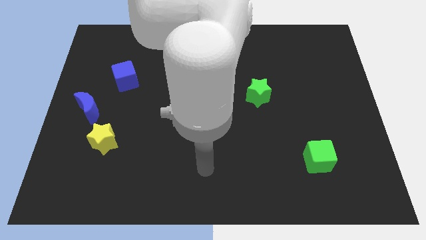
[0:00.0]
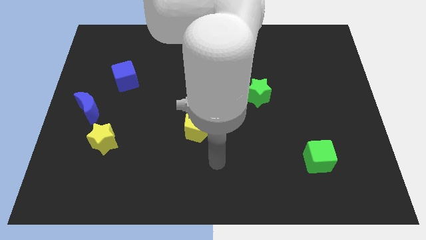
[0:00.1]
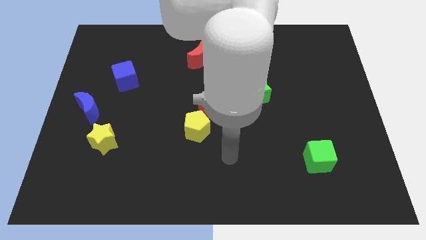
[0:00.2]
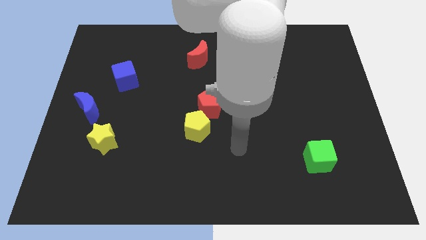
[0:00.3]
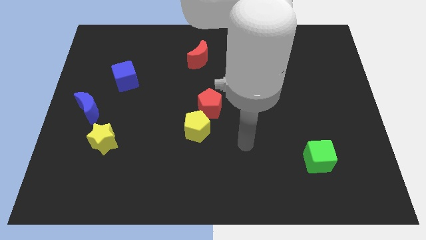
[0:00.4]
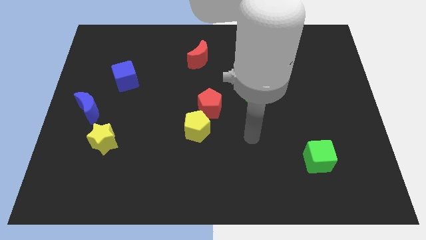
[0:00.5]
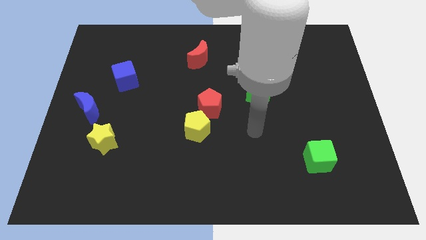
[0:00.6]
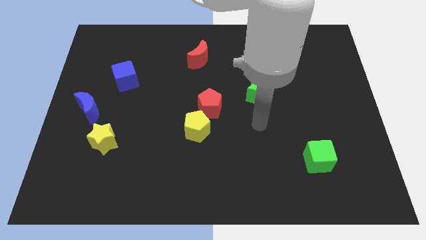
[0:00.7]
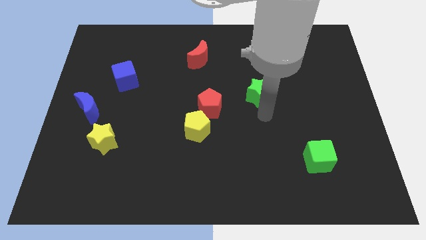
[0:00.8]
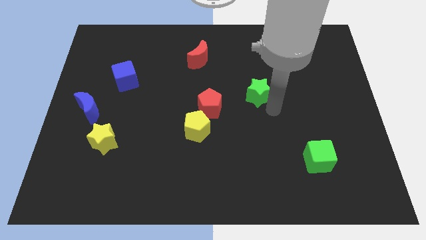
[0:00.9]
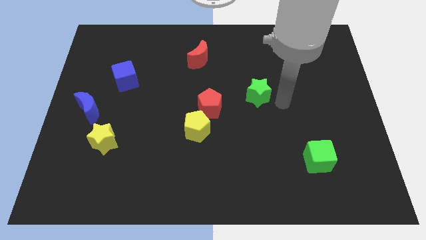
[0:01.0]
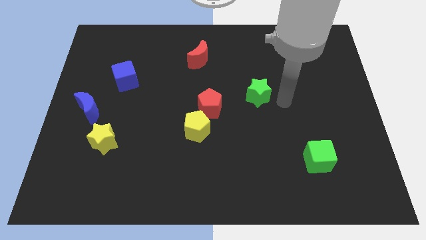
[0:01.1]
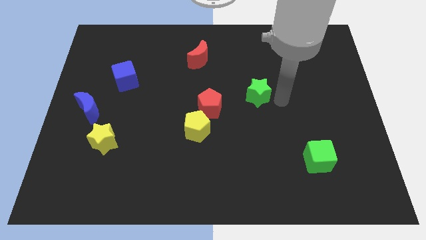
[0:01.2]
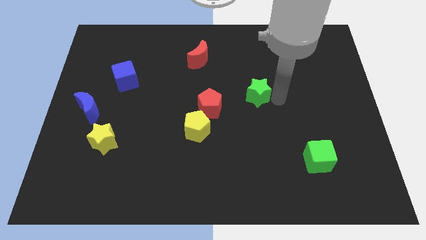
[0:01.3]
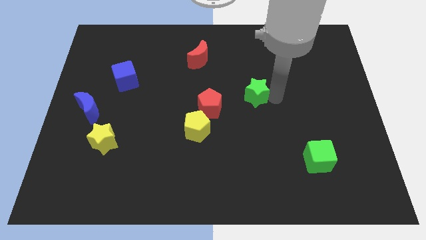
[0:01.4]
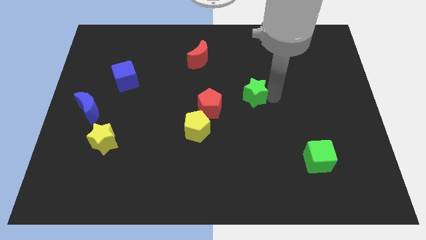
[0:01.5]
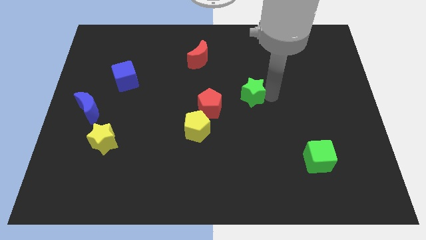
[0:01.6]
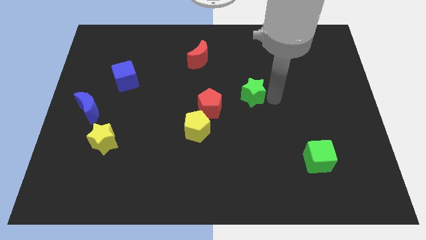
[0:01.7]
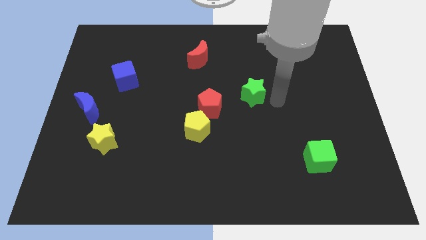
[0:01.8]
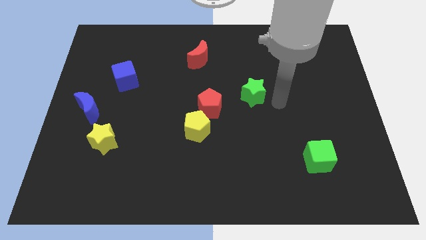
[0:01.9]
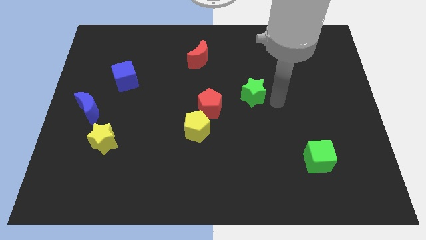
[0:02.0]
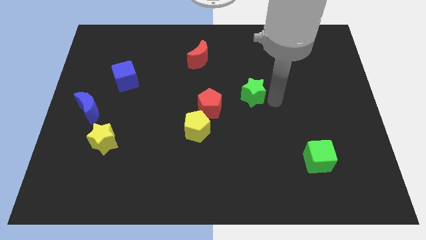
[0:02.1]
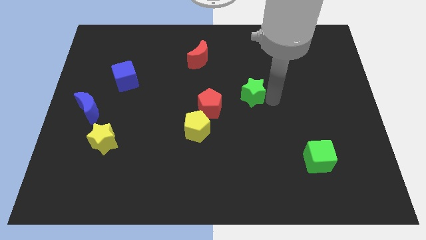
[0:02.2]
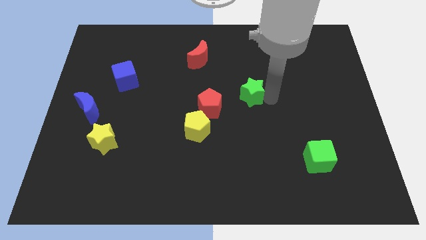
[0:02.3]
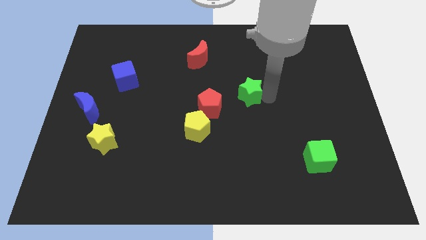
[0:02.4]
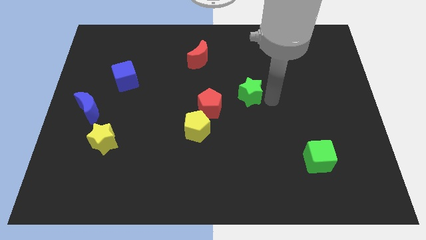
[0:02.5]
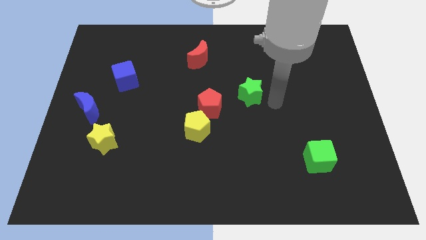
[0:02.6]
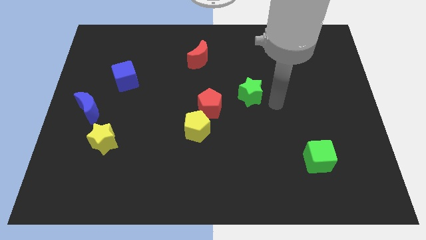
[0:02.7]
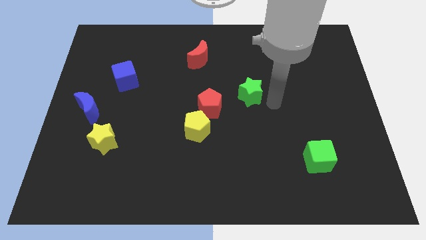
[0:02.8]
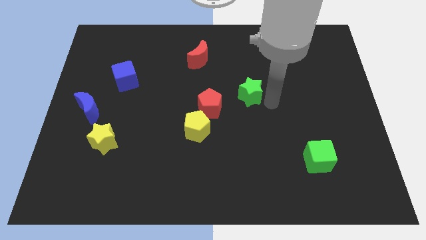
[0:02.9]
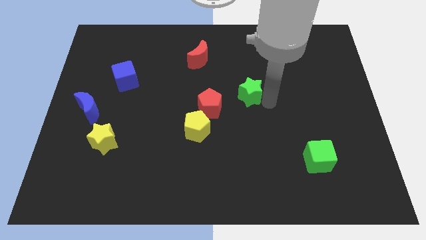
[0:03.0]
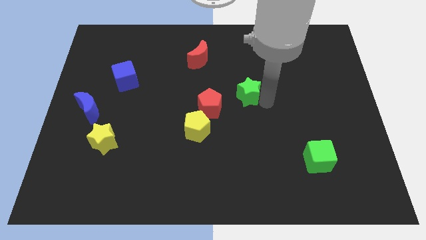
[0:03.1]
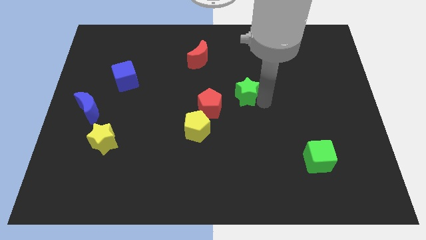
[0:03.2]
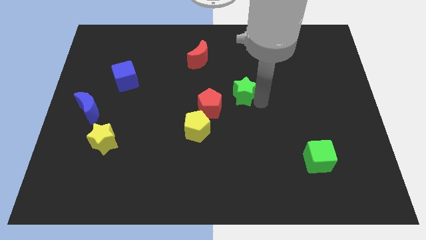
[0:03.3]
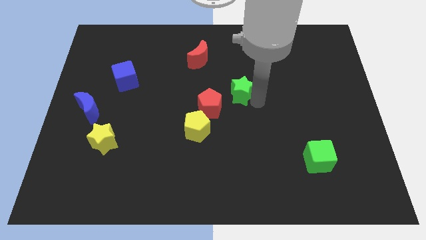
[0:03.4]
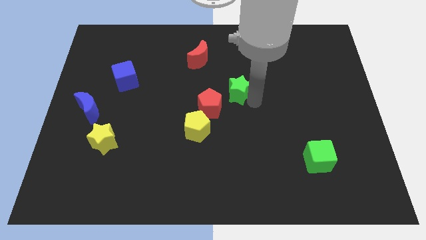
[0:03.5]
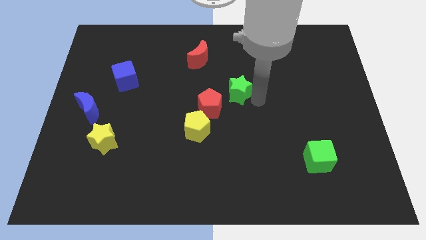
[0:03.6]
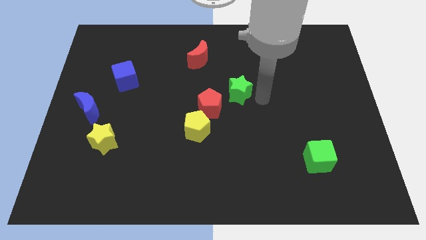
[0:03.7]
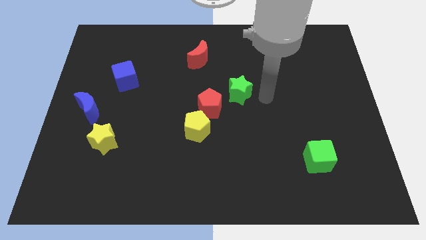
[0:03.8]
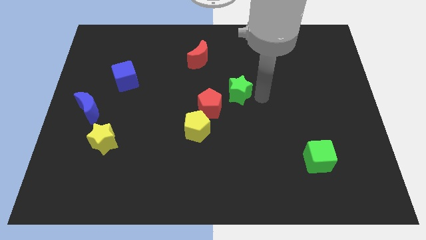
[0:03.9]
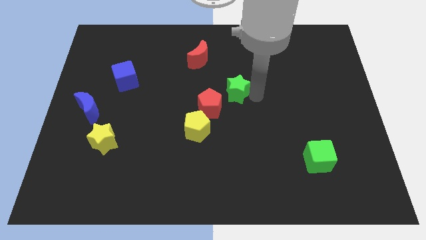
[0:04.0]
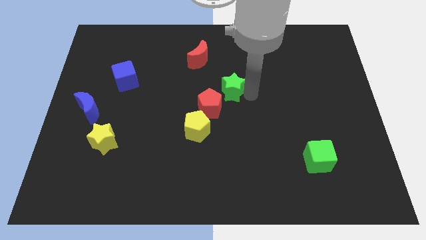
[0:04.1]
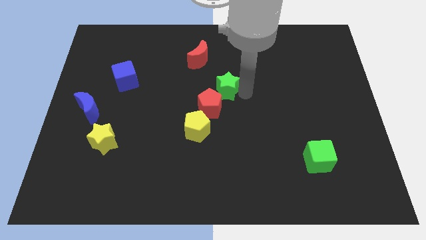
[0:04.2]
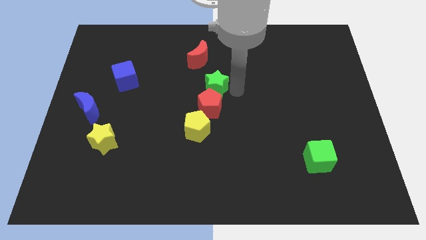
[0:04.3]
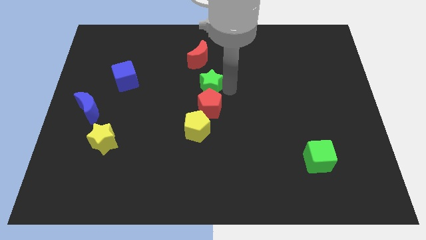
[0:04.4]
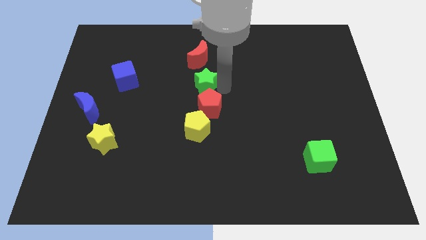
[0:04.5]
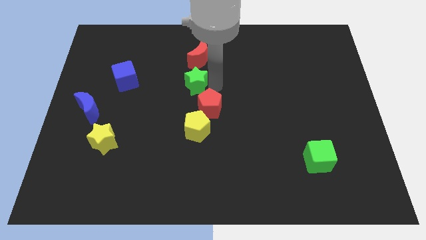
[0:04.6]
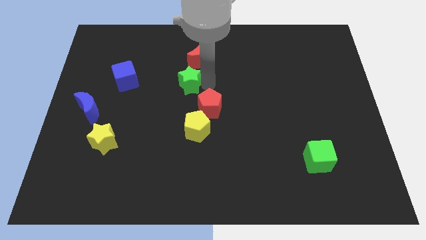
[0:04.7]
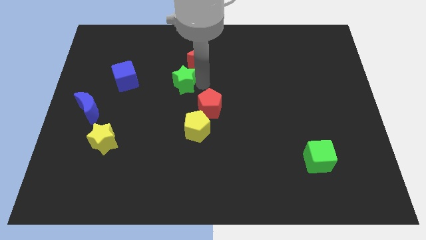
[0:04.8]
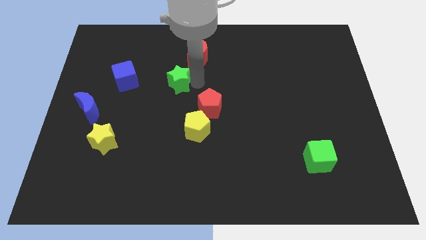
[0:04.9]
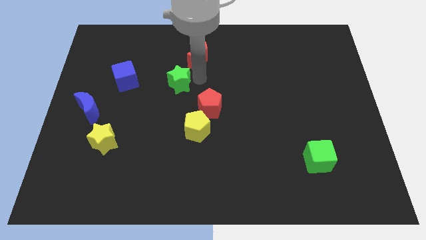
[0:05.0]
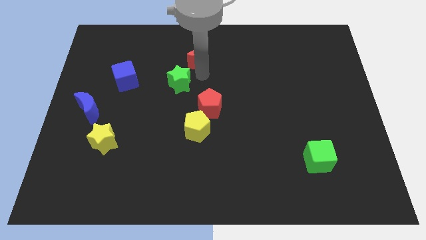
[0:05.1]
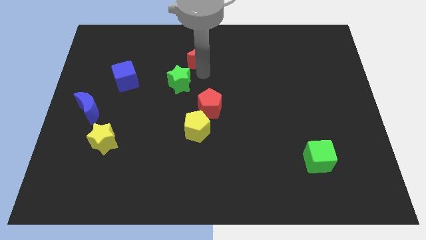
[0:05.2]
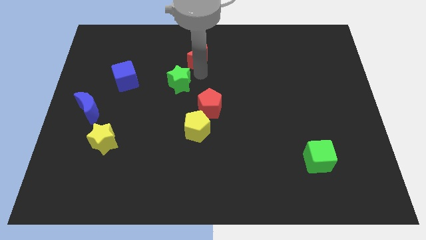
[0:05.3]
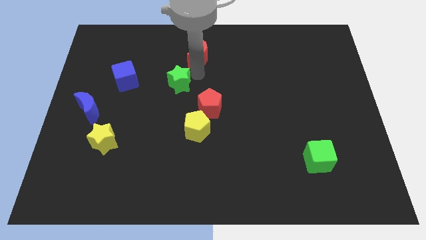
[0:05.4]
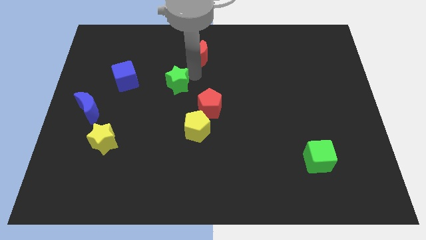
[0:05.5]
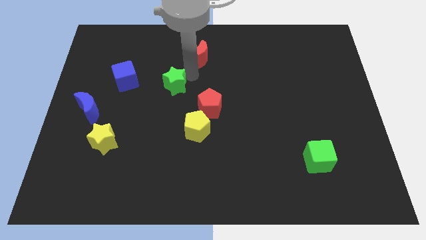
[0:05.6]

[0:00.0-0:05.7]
slide the green star to the left

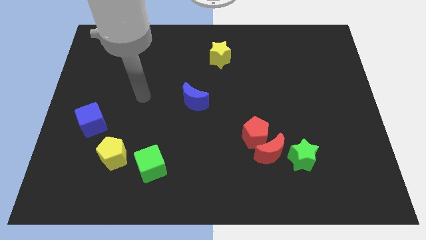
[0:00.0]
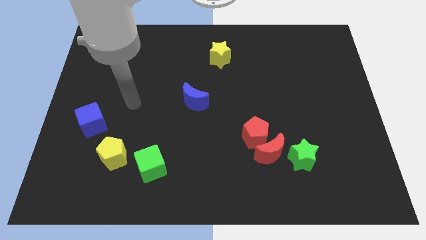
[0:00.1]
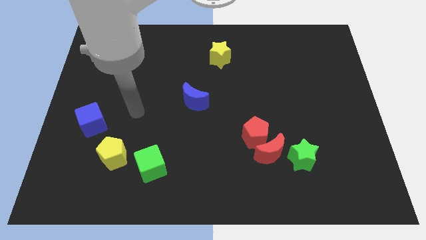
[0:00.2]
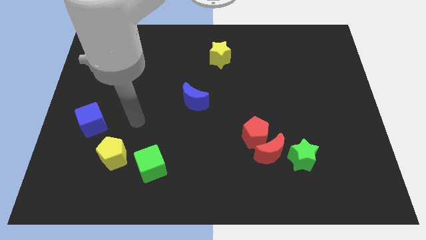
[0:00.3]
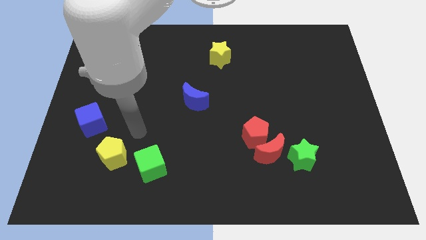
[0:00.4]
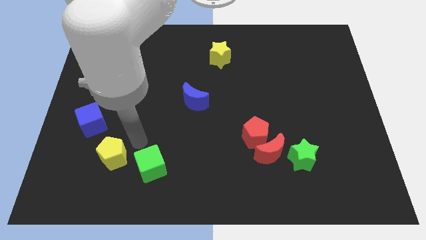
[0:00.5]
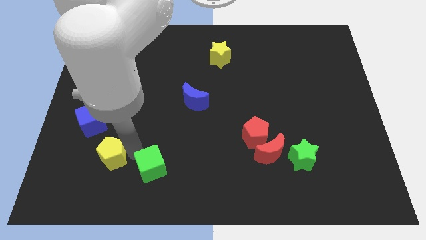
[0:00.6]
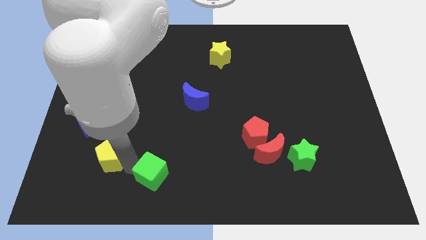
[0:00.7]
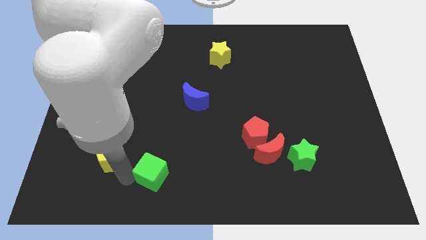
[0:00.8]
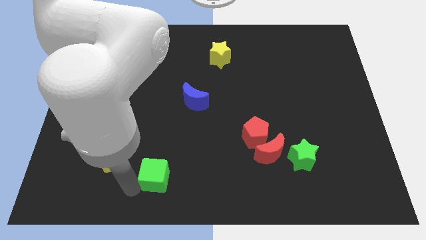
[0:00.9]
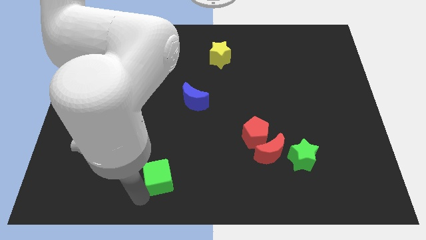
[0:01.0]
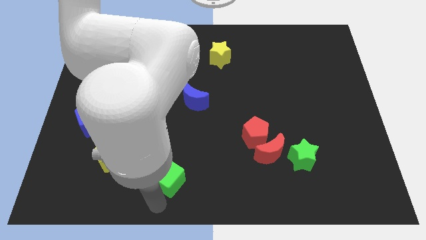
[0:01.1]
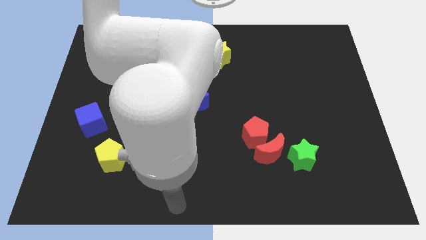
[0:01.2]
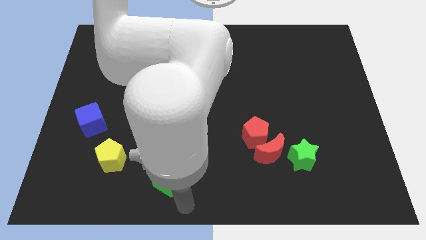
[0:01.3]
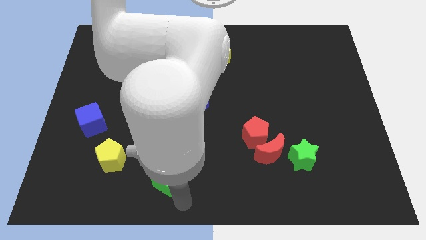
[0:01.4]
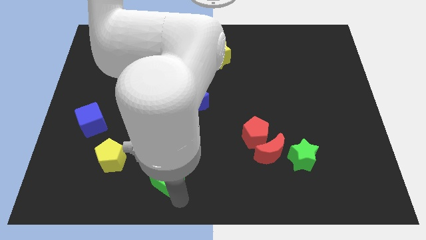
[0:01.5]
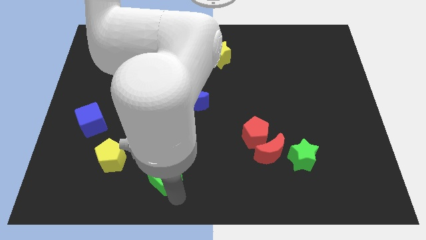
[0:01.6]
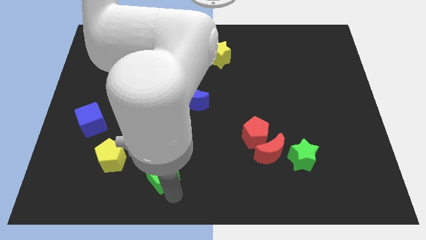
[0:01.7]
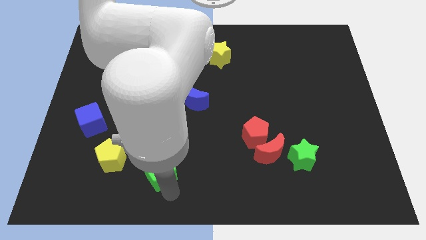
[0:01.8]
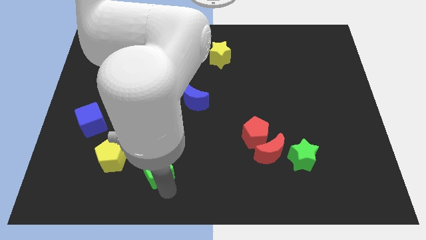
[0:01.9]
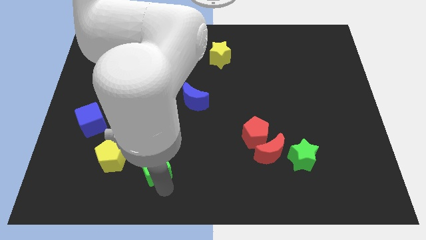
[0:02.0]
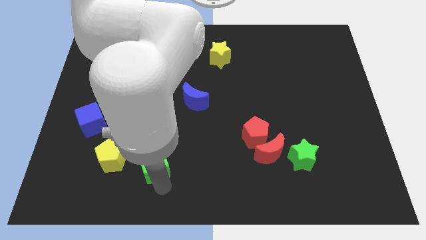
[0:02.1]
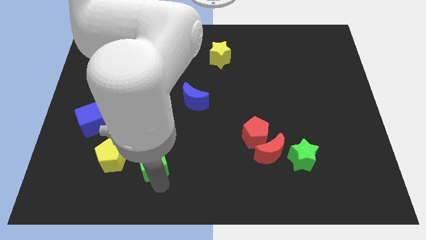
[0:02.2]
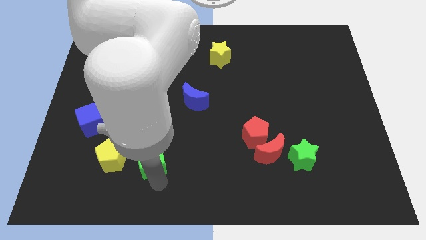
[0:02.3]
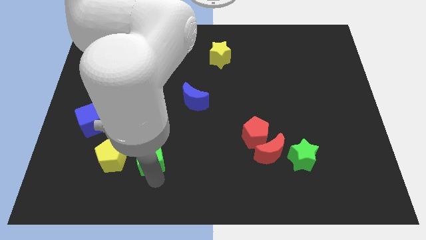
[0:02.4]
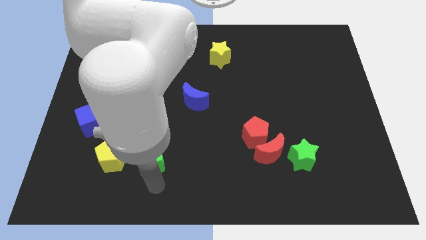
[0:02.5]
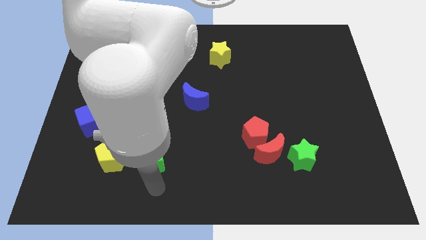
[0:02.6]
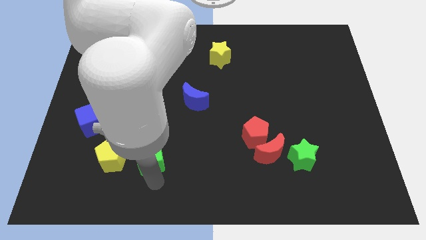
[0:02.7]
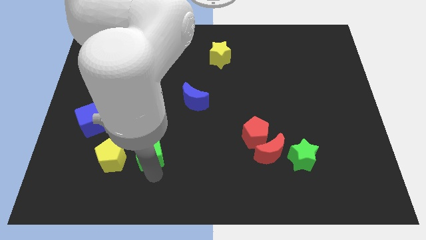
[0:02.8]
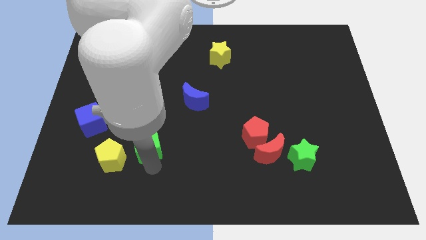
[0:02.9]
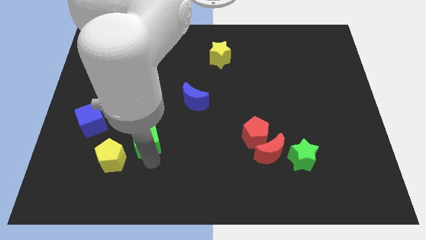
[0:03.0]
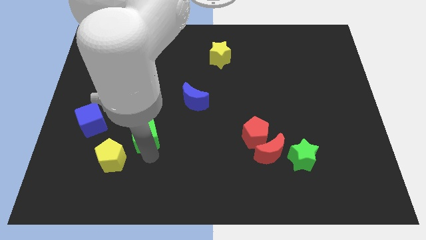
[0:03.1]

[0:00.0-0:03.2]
move the green cube a bit upwards
